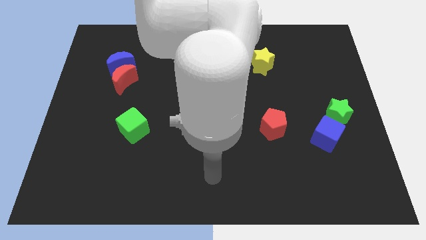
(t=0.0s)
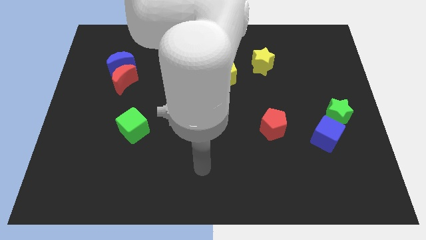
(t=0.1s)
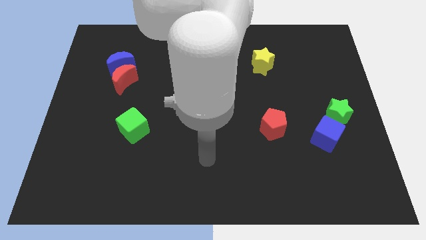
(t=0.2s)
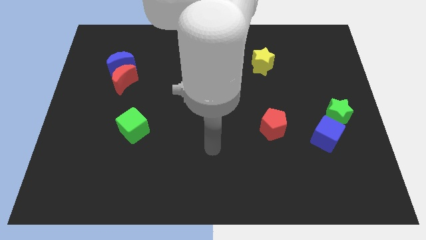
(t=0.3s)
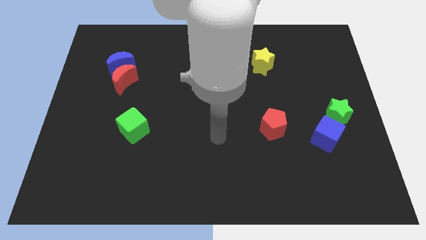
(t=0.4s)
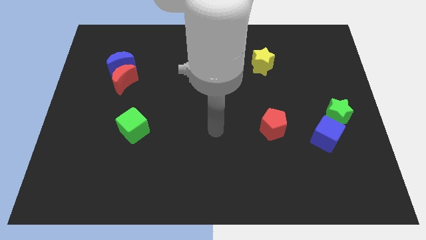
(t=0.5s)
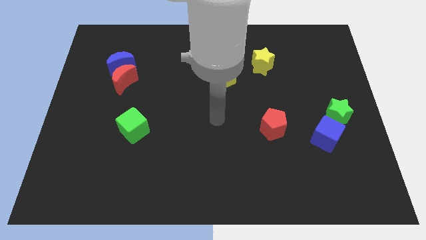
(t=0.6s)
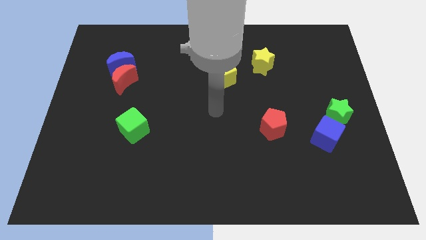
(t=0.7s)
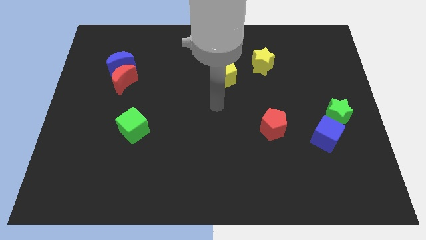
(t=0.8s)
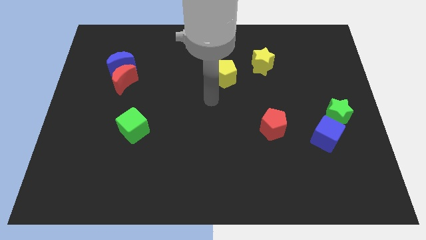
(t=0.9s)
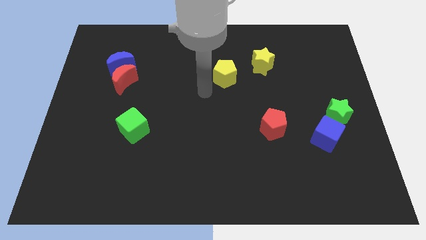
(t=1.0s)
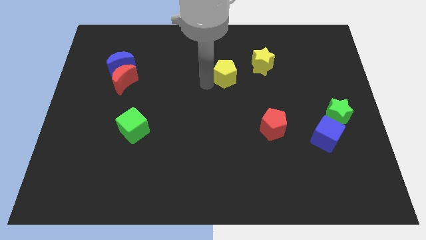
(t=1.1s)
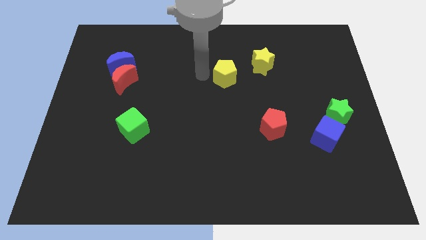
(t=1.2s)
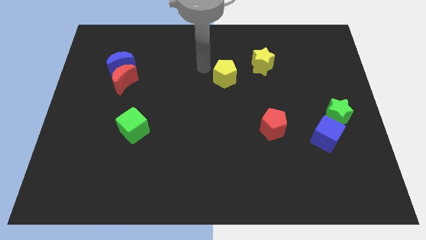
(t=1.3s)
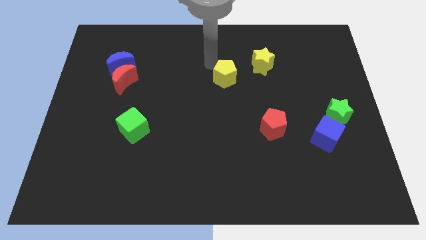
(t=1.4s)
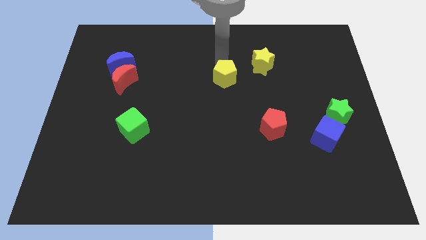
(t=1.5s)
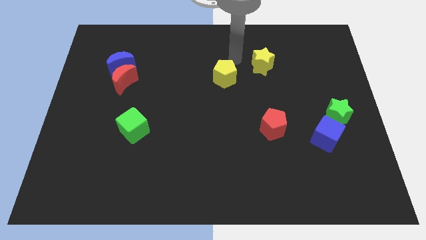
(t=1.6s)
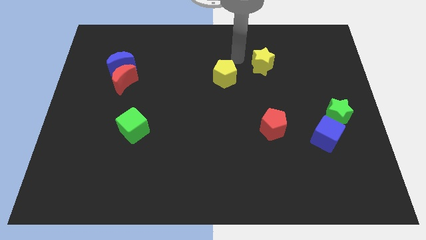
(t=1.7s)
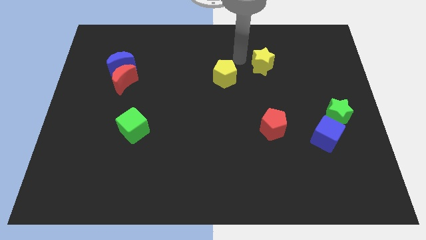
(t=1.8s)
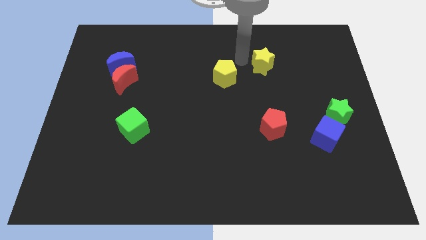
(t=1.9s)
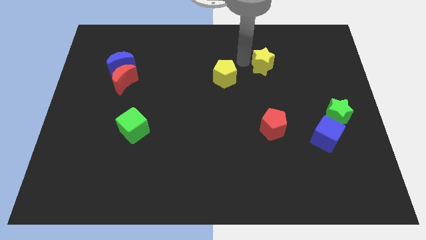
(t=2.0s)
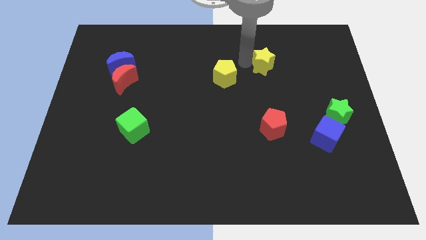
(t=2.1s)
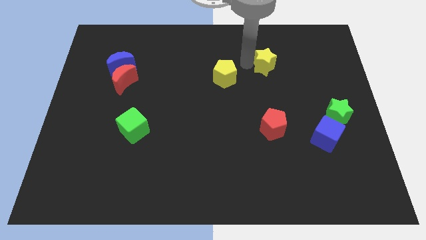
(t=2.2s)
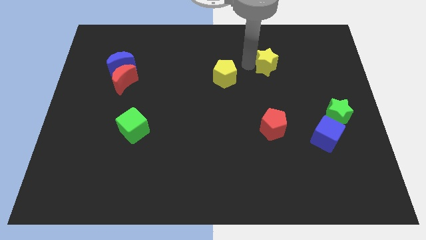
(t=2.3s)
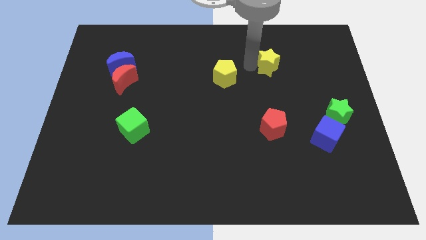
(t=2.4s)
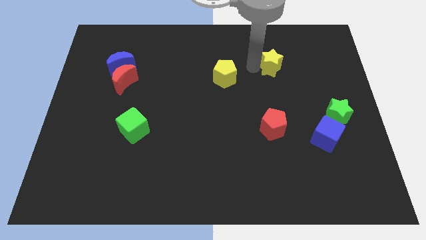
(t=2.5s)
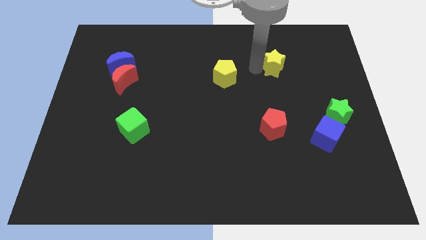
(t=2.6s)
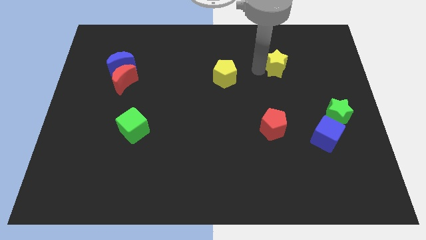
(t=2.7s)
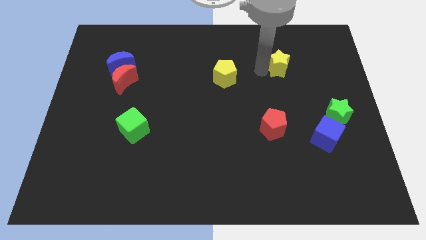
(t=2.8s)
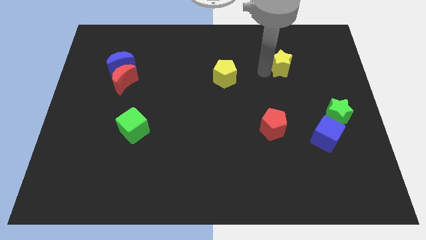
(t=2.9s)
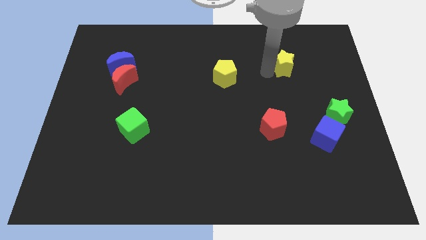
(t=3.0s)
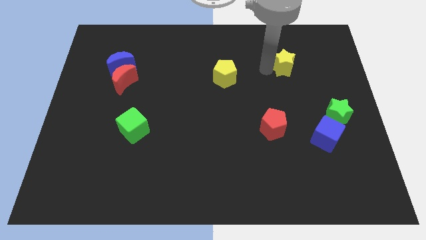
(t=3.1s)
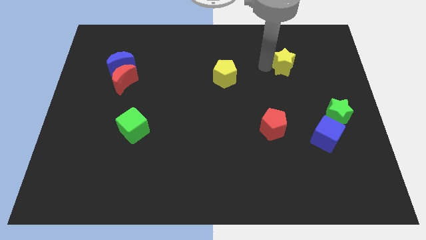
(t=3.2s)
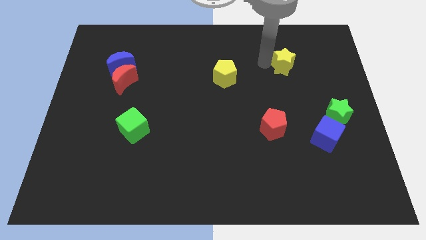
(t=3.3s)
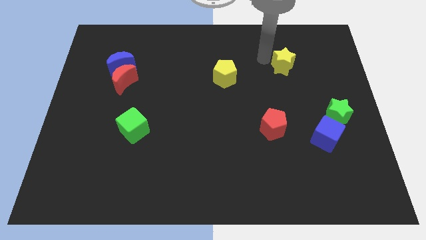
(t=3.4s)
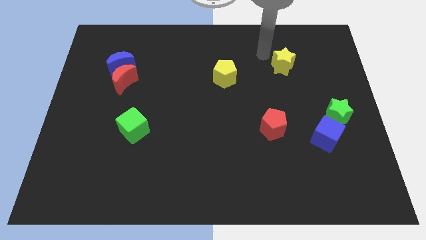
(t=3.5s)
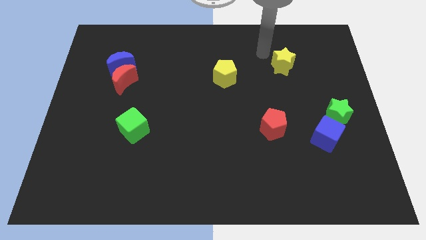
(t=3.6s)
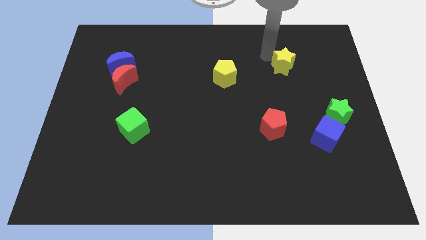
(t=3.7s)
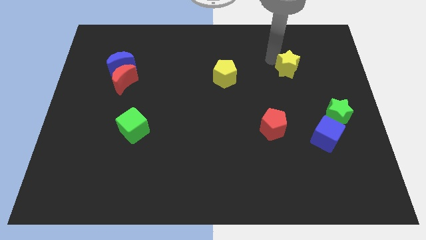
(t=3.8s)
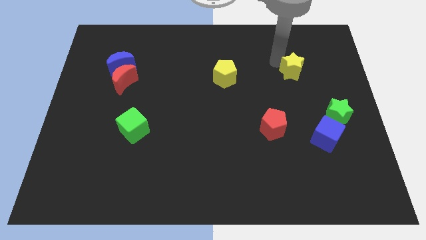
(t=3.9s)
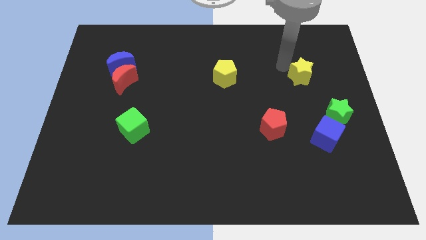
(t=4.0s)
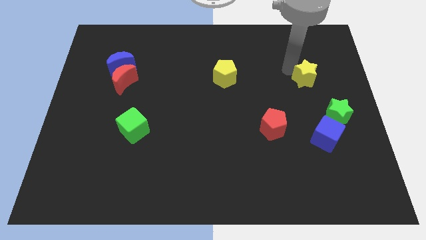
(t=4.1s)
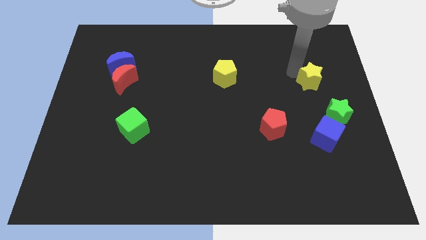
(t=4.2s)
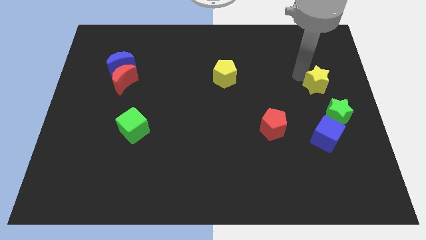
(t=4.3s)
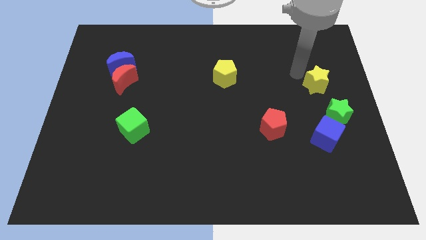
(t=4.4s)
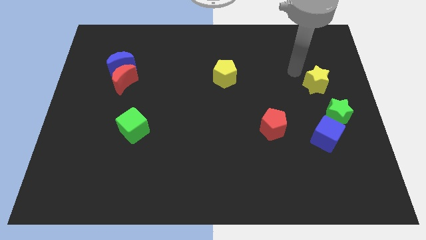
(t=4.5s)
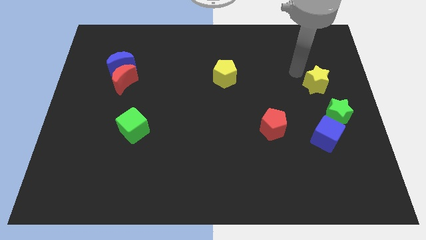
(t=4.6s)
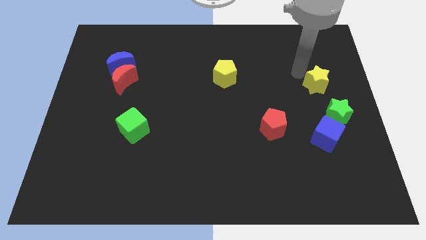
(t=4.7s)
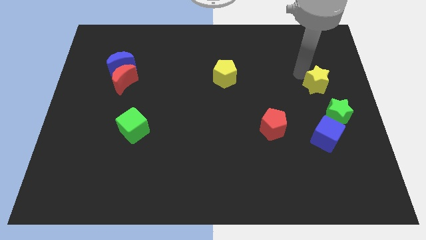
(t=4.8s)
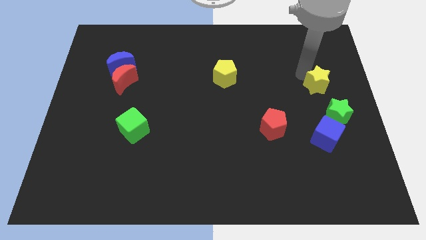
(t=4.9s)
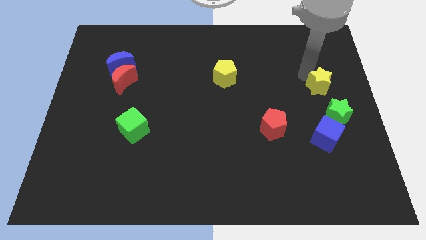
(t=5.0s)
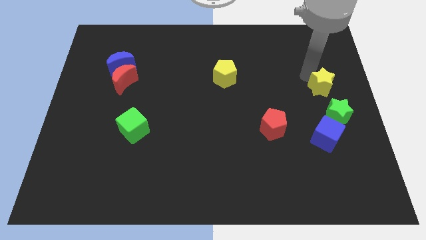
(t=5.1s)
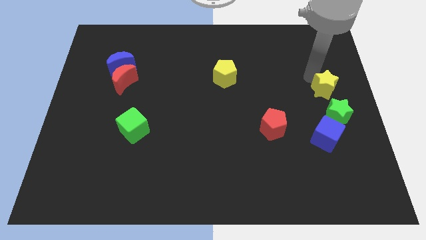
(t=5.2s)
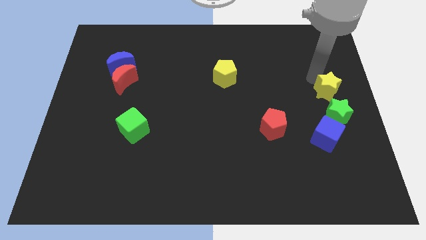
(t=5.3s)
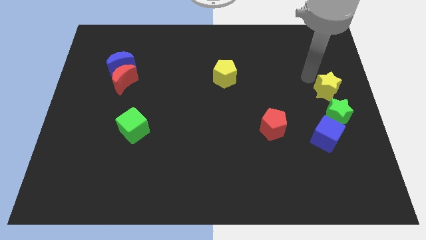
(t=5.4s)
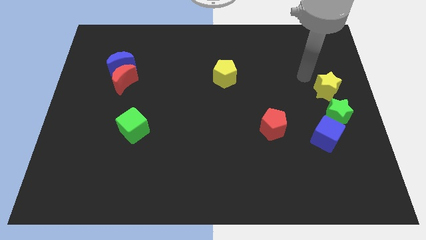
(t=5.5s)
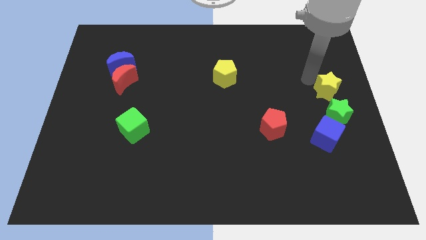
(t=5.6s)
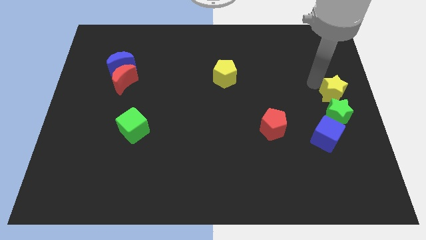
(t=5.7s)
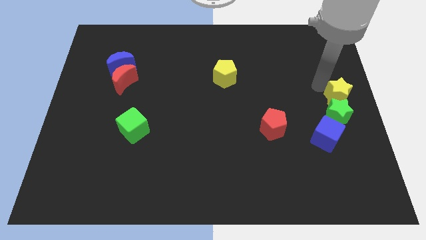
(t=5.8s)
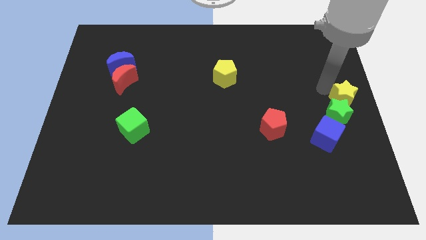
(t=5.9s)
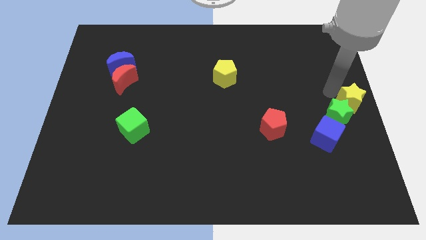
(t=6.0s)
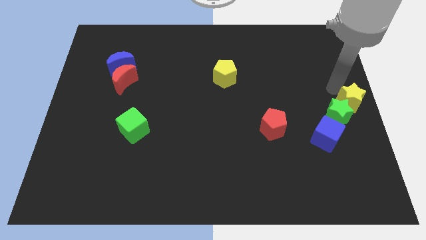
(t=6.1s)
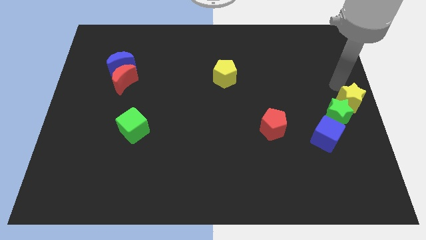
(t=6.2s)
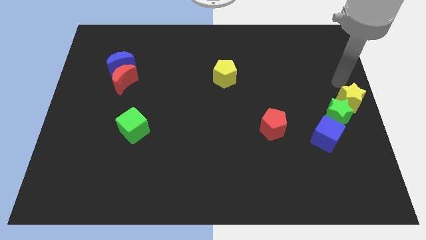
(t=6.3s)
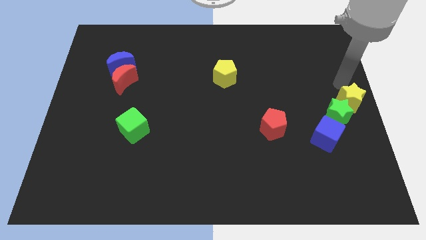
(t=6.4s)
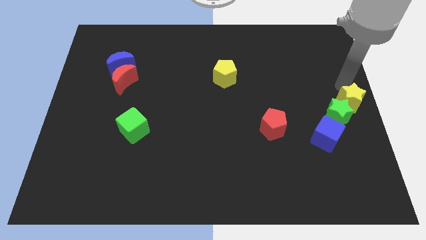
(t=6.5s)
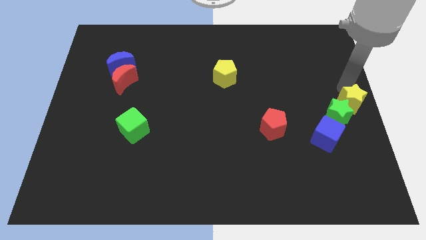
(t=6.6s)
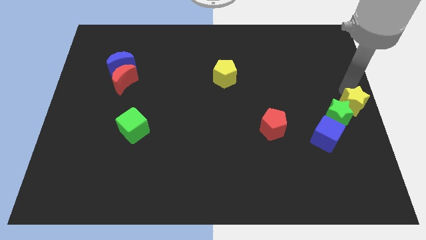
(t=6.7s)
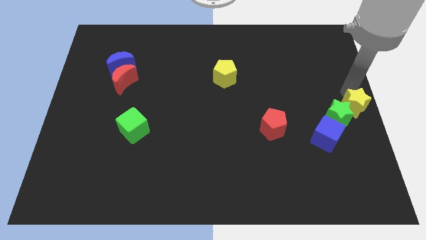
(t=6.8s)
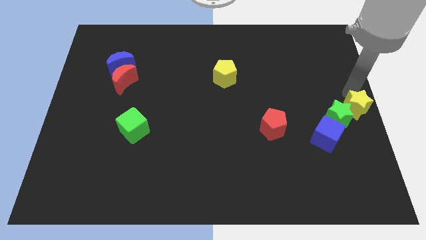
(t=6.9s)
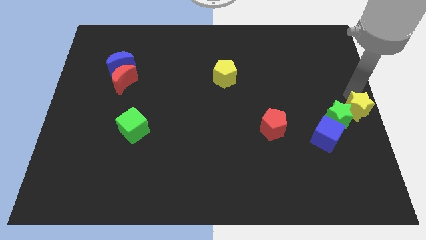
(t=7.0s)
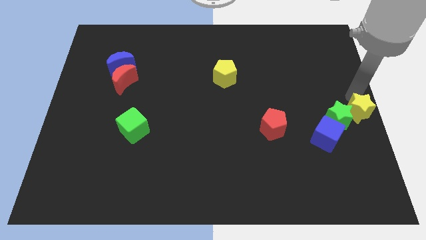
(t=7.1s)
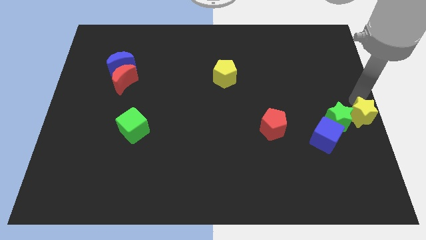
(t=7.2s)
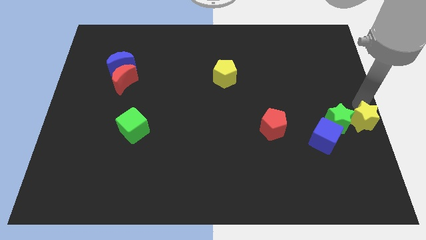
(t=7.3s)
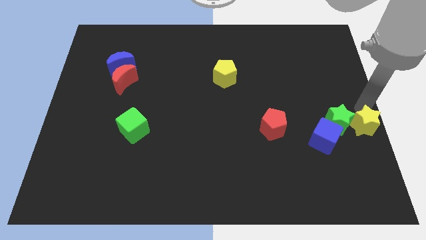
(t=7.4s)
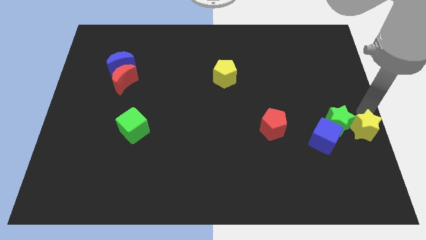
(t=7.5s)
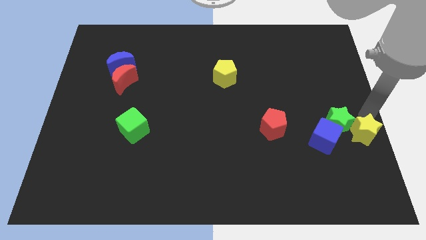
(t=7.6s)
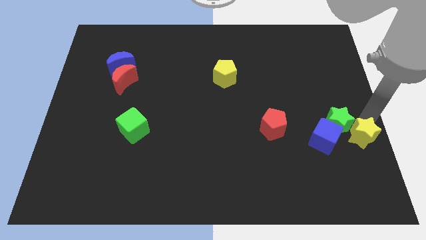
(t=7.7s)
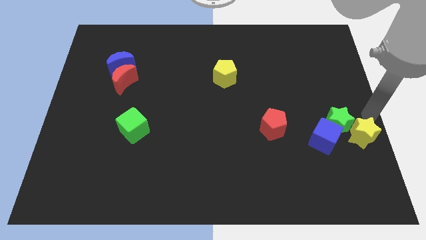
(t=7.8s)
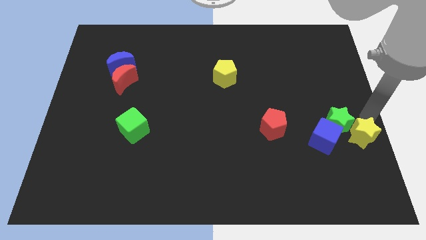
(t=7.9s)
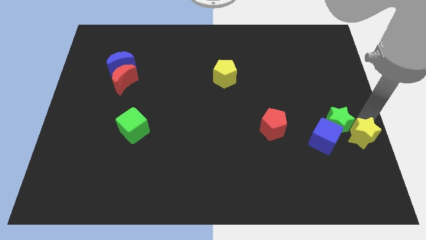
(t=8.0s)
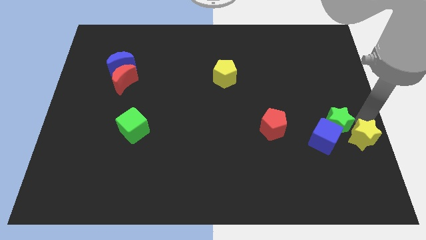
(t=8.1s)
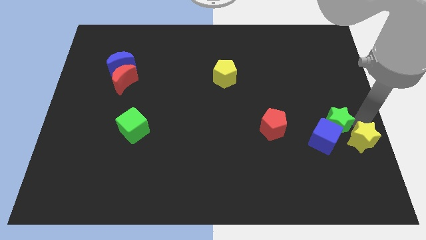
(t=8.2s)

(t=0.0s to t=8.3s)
slide the yellow star to the bottom of the green star
